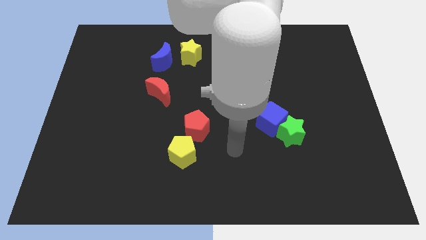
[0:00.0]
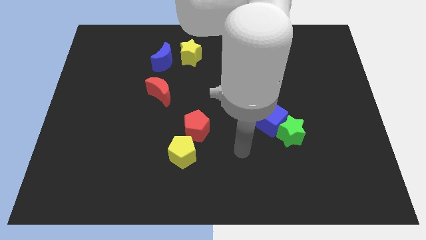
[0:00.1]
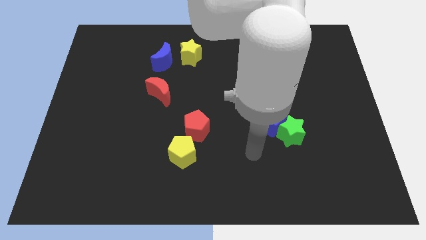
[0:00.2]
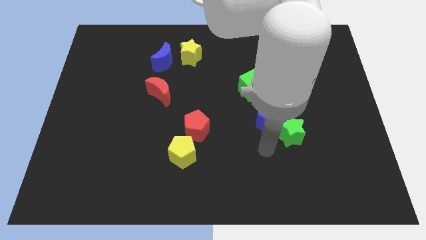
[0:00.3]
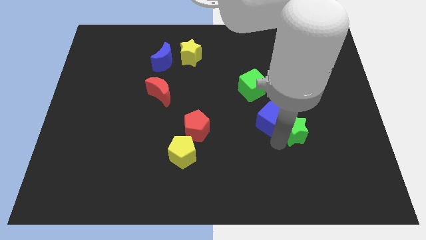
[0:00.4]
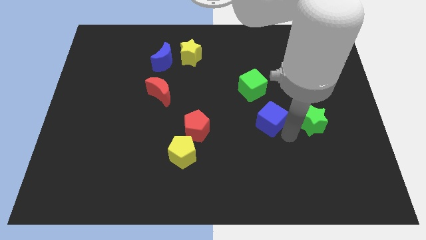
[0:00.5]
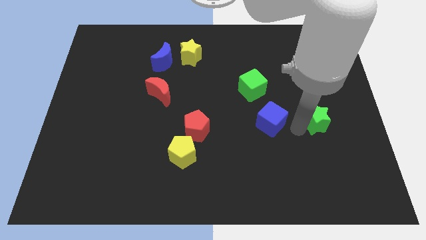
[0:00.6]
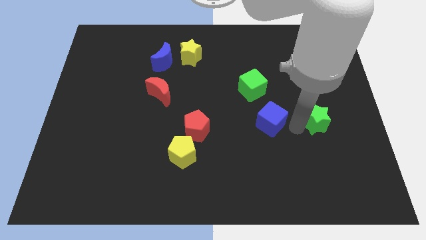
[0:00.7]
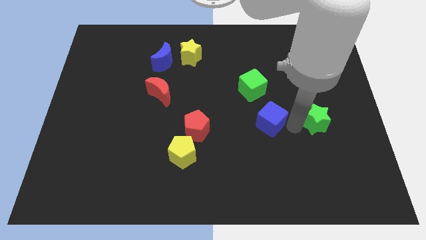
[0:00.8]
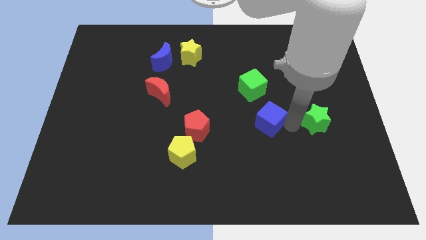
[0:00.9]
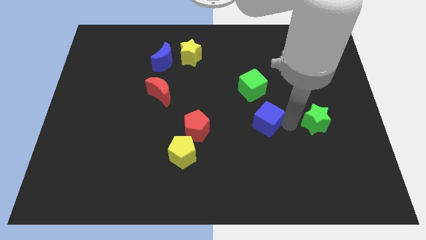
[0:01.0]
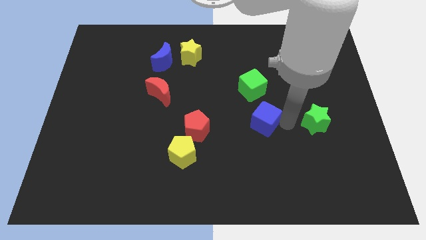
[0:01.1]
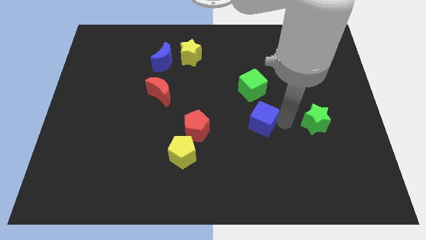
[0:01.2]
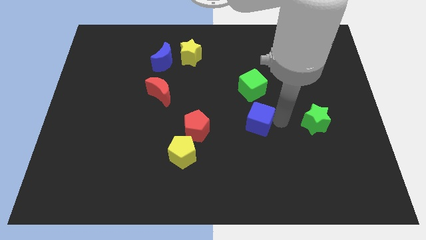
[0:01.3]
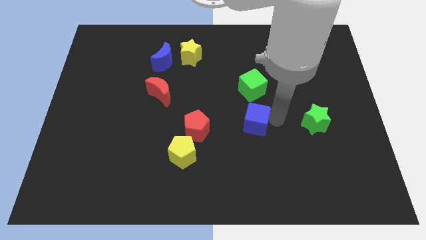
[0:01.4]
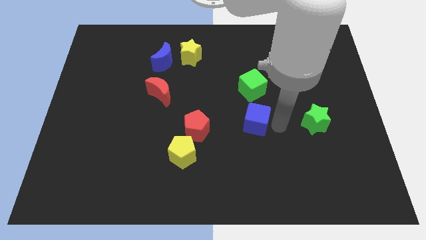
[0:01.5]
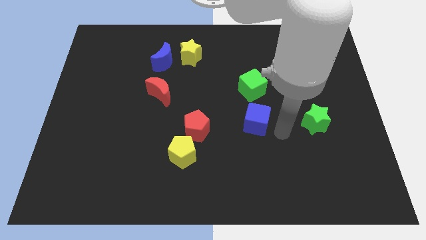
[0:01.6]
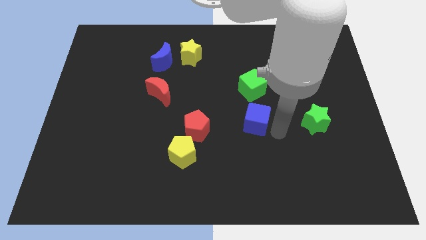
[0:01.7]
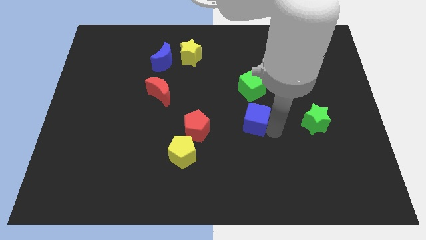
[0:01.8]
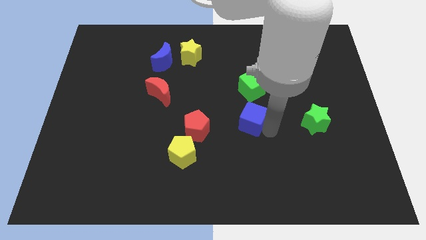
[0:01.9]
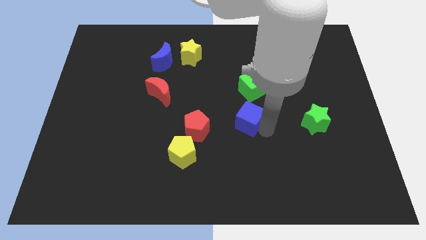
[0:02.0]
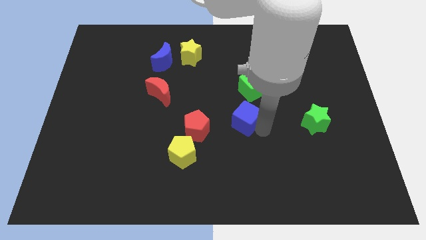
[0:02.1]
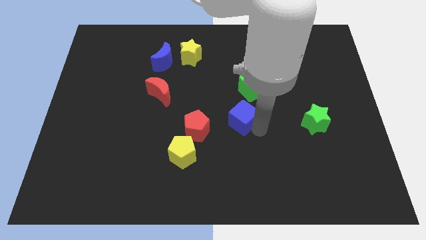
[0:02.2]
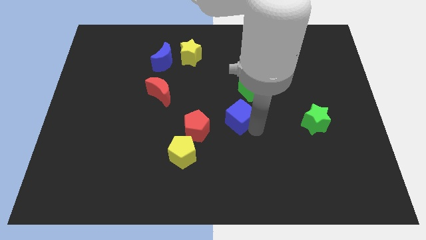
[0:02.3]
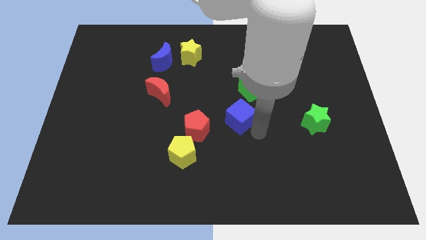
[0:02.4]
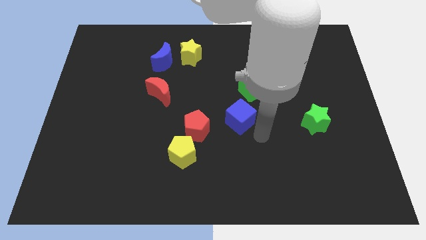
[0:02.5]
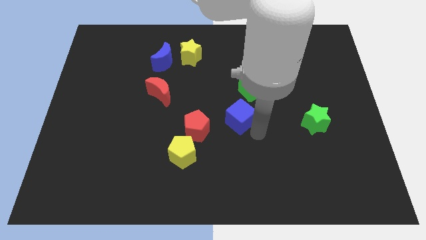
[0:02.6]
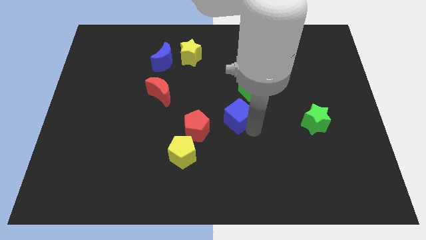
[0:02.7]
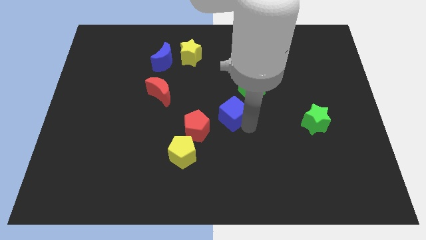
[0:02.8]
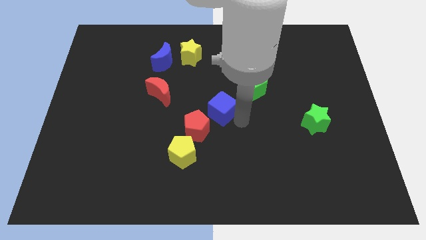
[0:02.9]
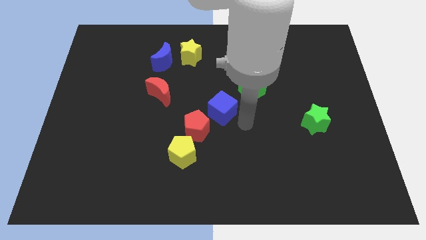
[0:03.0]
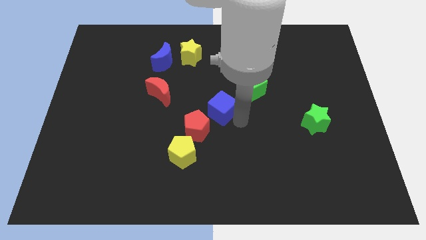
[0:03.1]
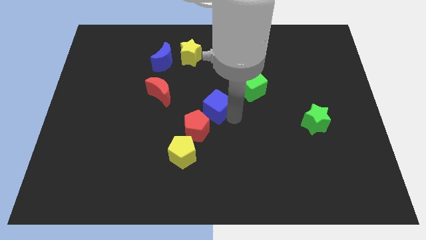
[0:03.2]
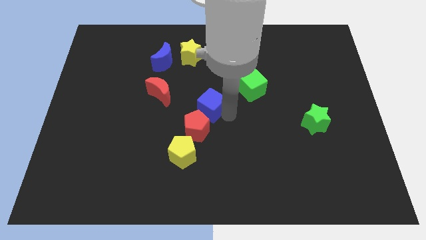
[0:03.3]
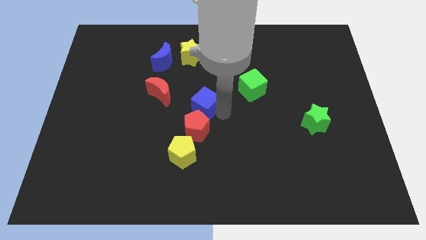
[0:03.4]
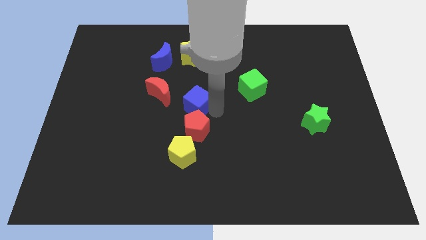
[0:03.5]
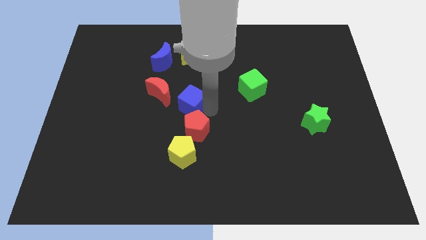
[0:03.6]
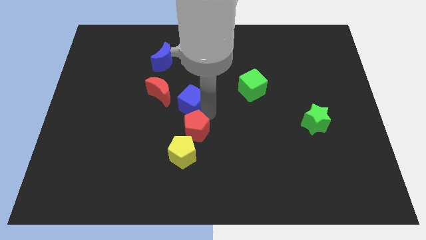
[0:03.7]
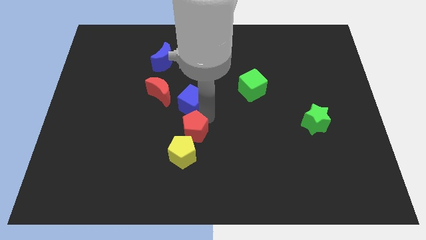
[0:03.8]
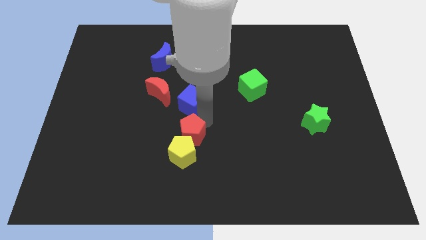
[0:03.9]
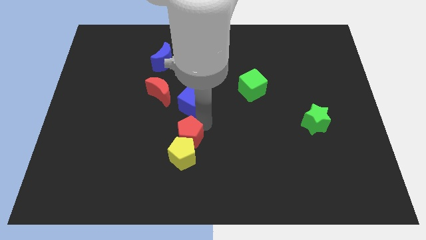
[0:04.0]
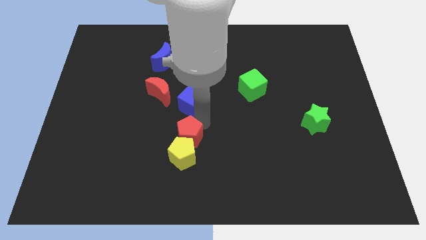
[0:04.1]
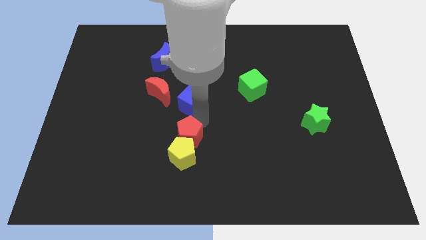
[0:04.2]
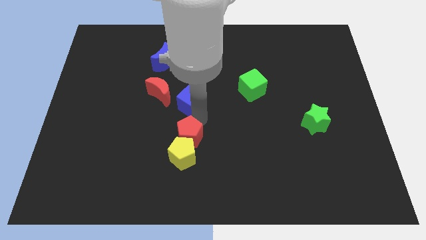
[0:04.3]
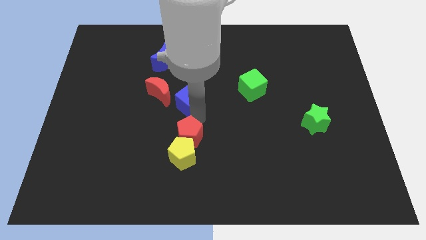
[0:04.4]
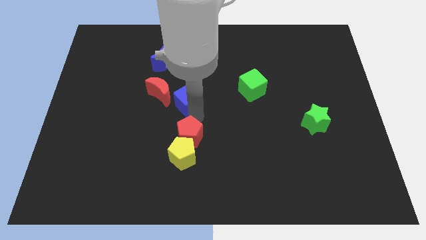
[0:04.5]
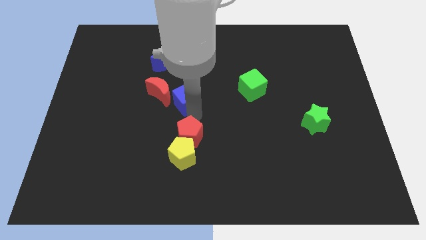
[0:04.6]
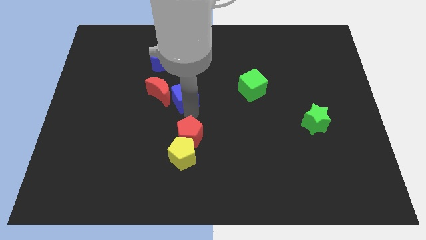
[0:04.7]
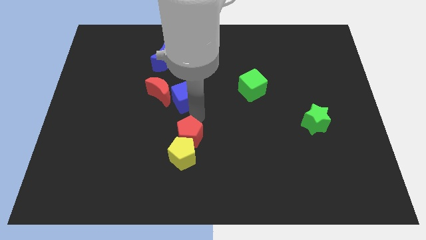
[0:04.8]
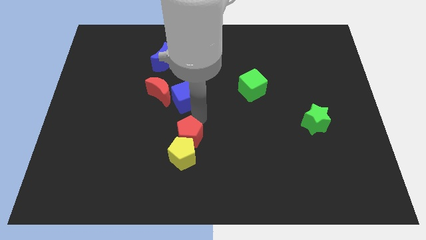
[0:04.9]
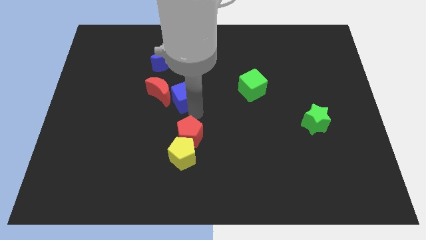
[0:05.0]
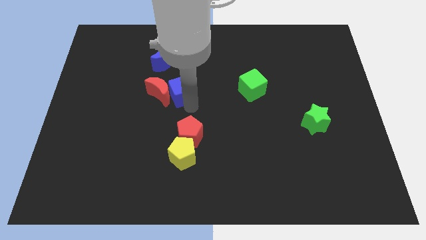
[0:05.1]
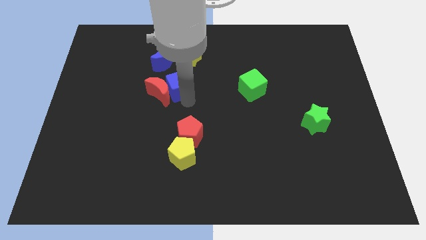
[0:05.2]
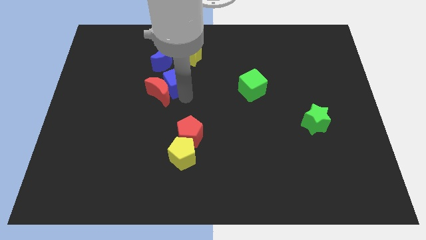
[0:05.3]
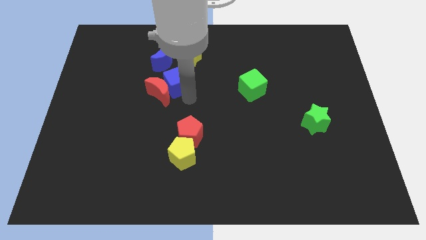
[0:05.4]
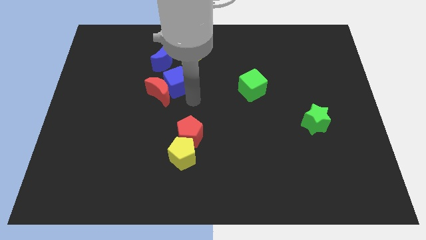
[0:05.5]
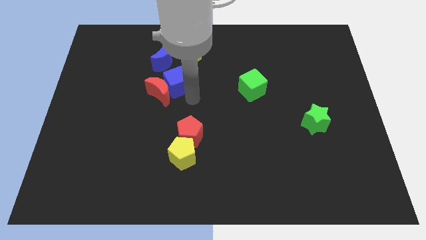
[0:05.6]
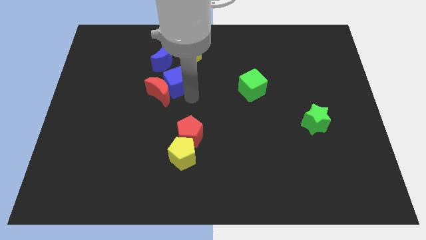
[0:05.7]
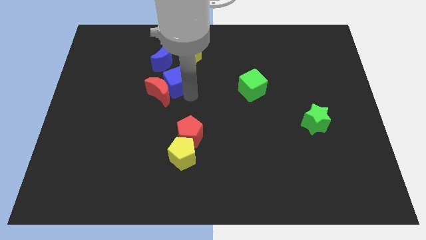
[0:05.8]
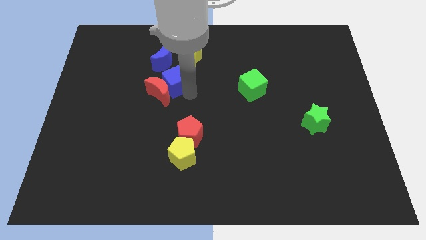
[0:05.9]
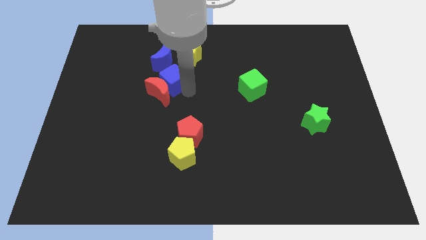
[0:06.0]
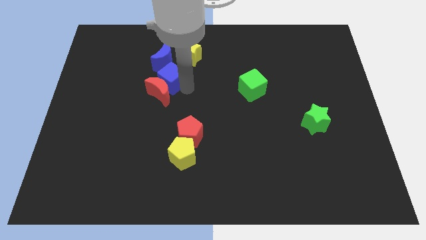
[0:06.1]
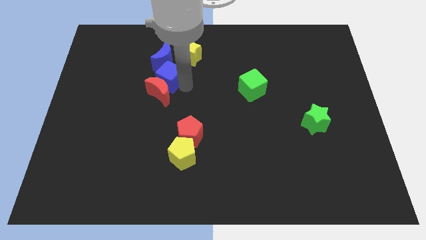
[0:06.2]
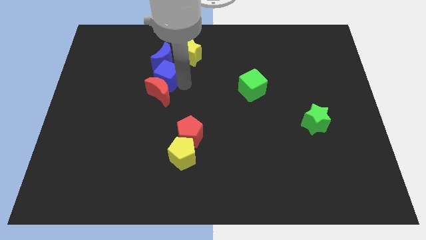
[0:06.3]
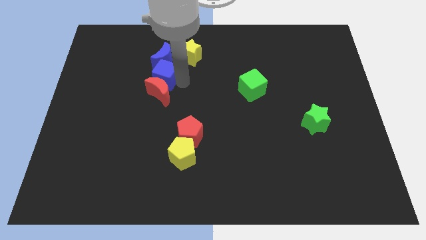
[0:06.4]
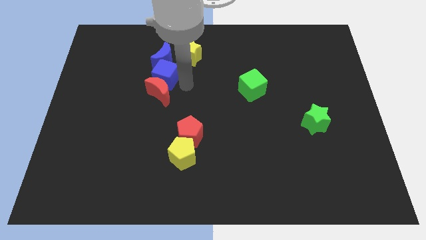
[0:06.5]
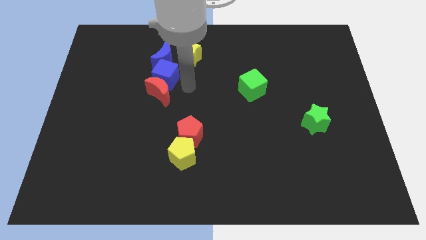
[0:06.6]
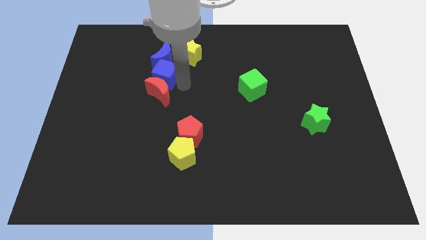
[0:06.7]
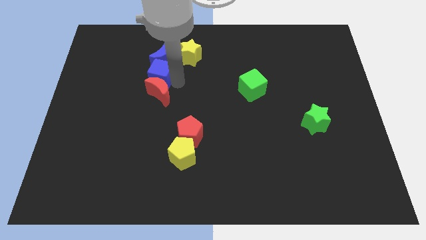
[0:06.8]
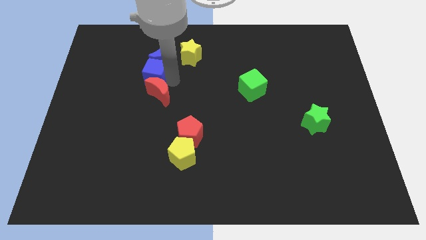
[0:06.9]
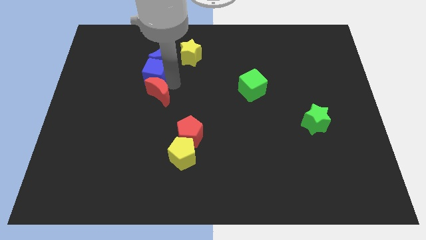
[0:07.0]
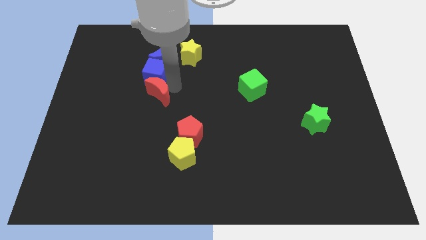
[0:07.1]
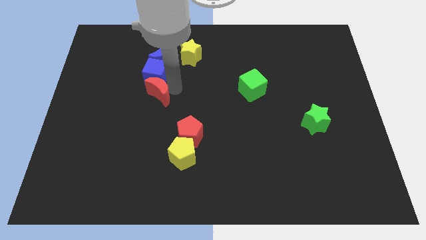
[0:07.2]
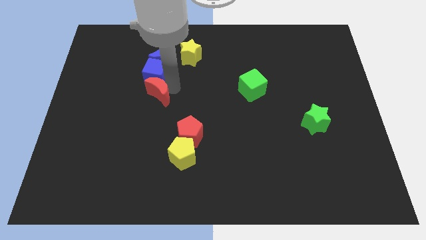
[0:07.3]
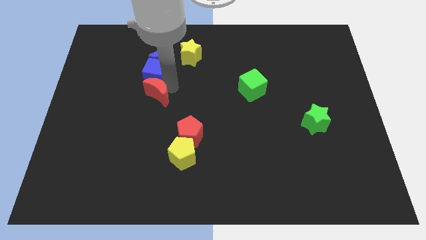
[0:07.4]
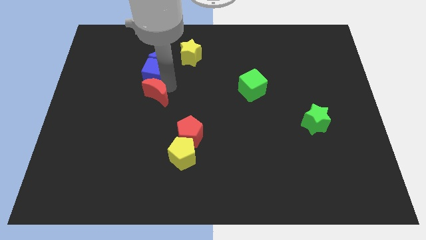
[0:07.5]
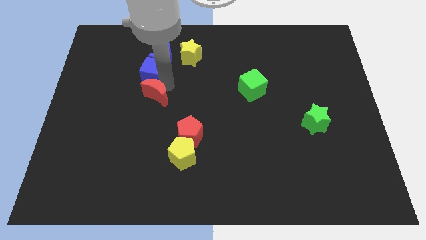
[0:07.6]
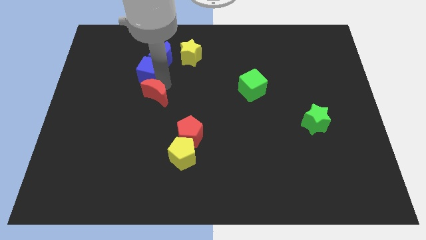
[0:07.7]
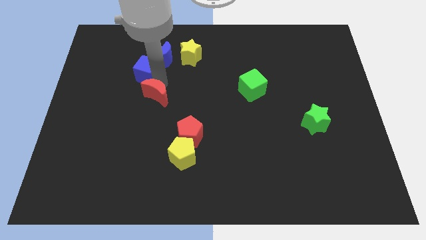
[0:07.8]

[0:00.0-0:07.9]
put the blue cube left of the blue moon

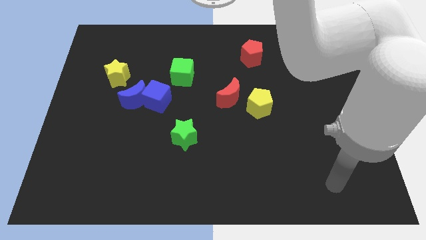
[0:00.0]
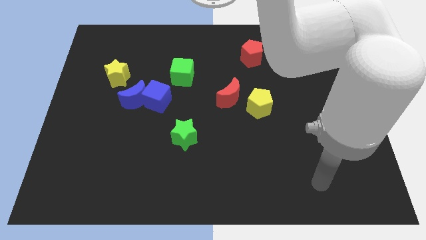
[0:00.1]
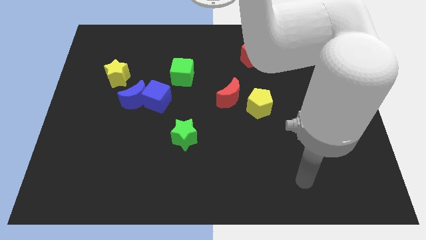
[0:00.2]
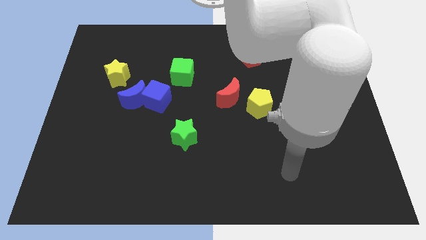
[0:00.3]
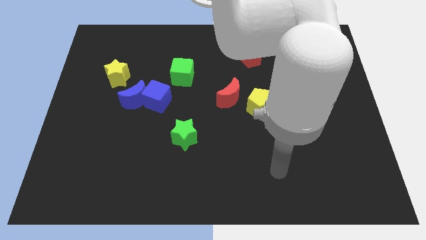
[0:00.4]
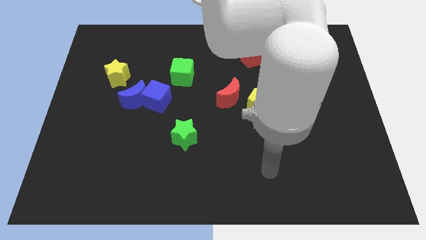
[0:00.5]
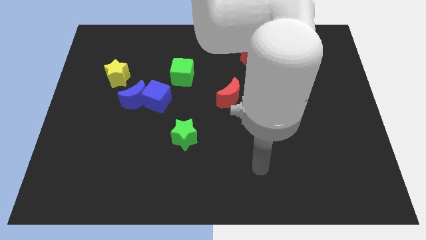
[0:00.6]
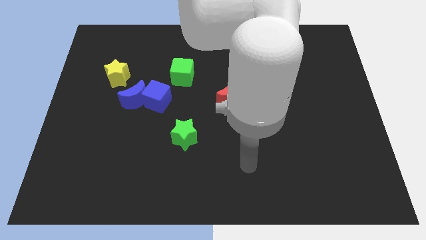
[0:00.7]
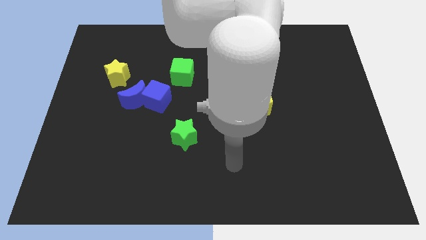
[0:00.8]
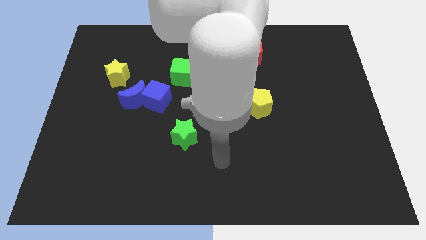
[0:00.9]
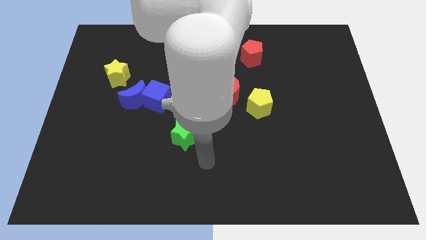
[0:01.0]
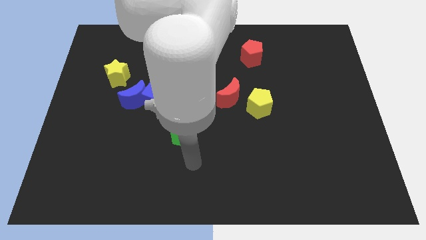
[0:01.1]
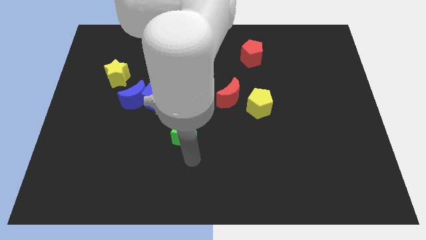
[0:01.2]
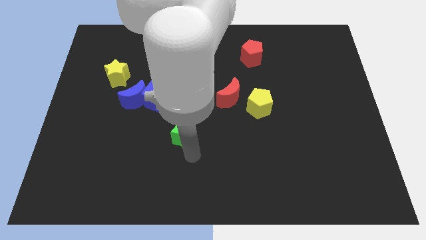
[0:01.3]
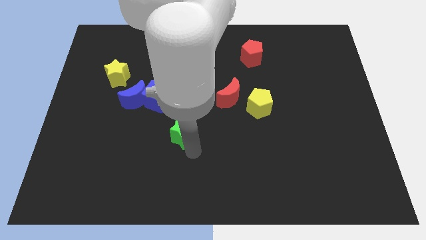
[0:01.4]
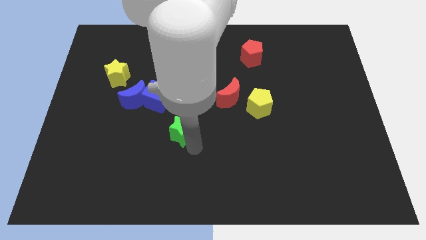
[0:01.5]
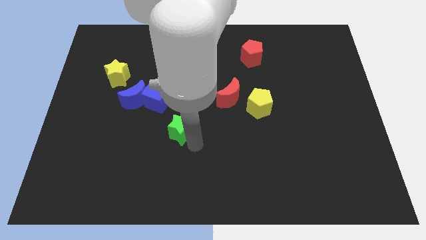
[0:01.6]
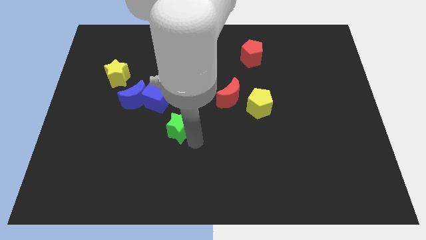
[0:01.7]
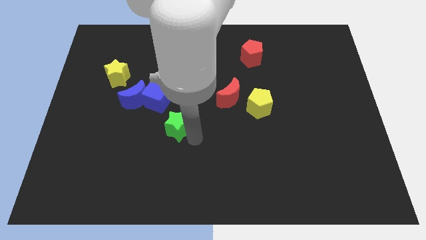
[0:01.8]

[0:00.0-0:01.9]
move the green star to the bottom side of the green cube
